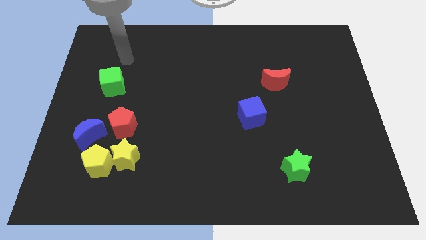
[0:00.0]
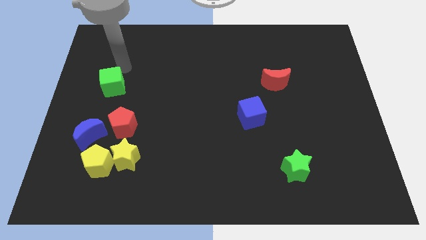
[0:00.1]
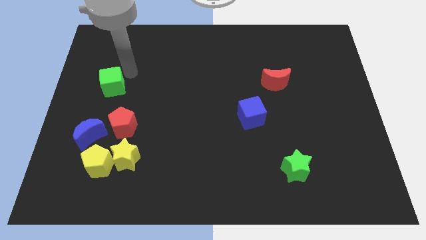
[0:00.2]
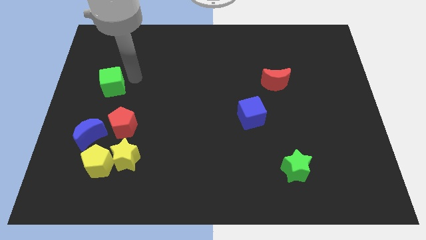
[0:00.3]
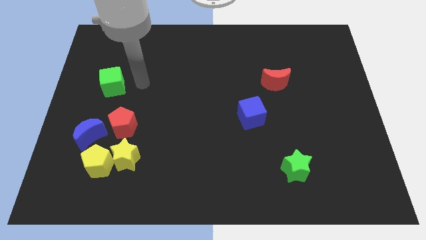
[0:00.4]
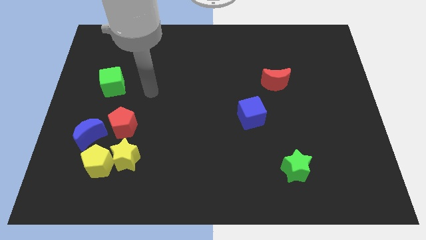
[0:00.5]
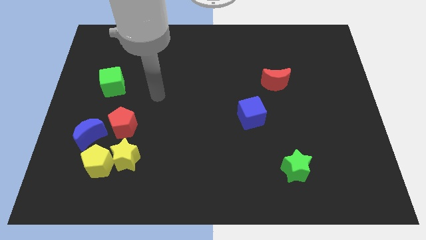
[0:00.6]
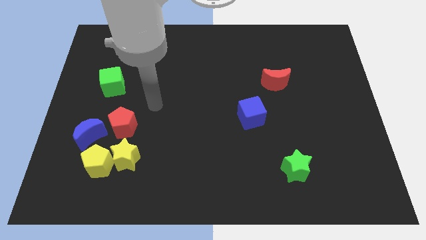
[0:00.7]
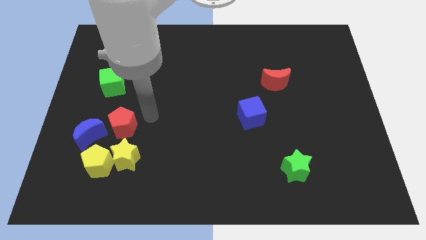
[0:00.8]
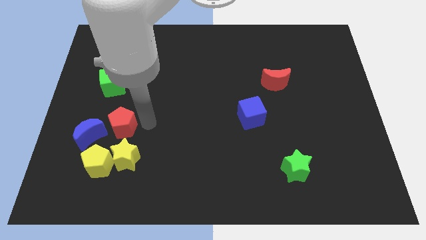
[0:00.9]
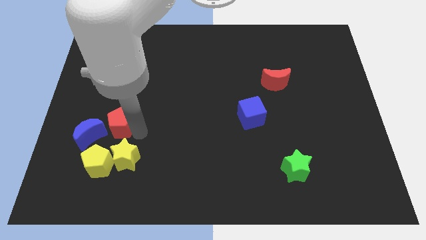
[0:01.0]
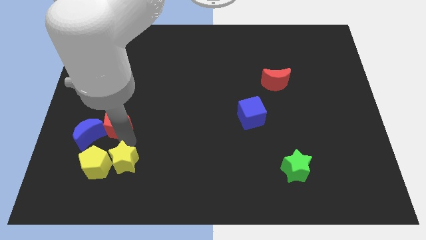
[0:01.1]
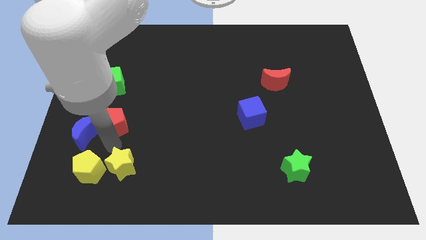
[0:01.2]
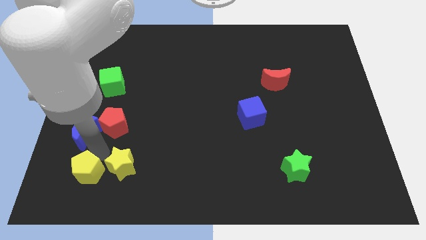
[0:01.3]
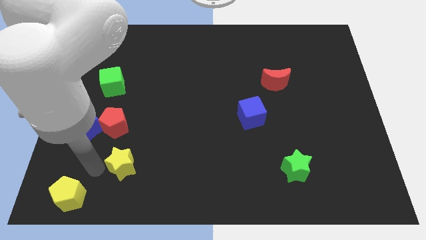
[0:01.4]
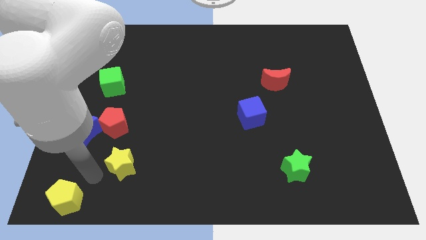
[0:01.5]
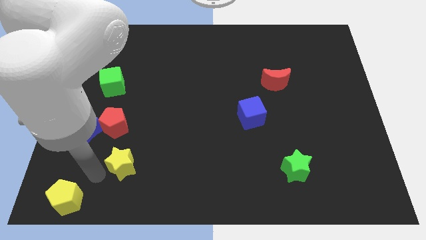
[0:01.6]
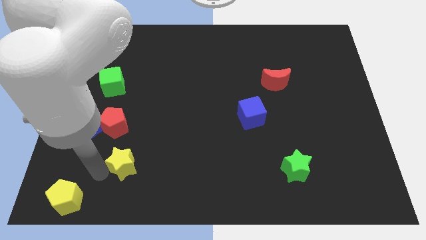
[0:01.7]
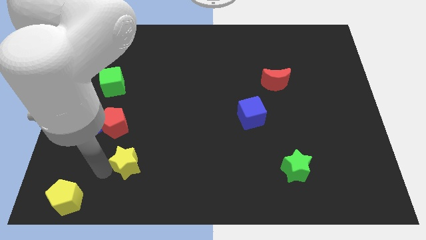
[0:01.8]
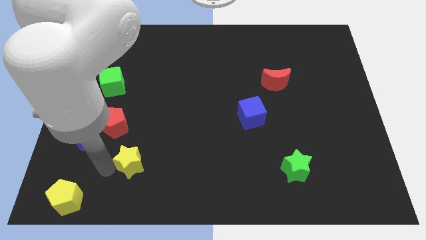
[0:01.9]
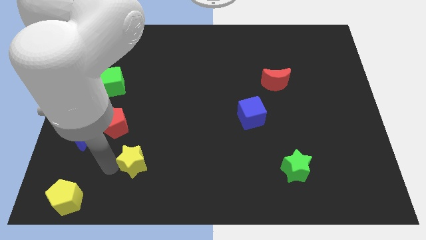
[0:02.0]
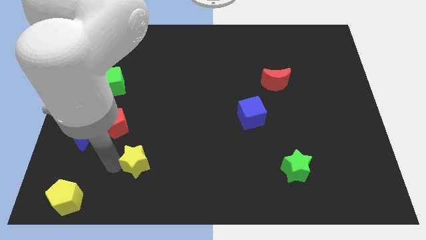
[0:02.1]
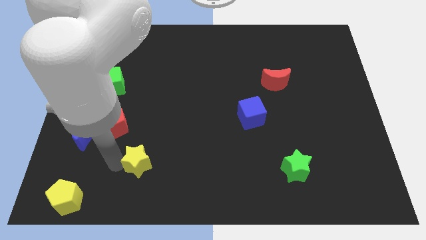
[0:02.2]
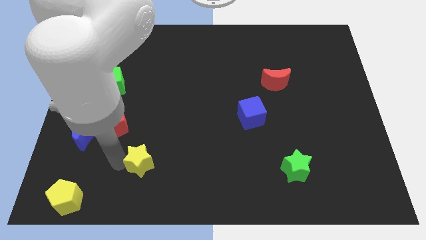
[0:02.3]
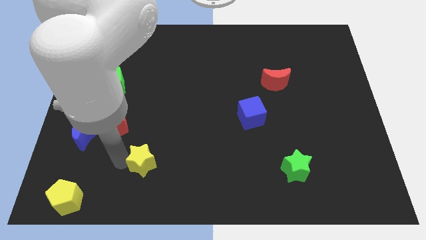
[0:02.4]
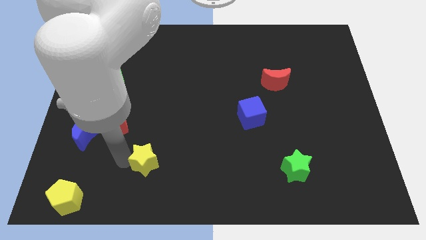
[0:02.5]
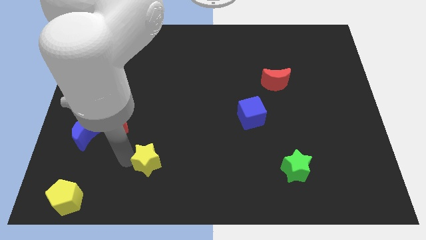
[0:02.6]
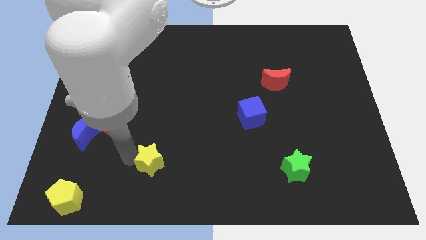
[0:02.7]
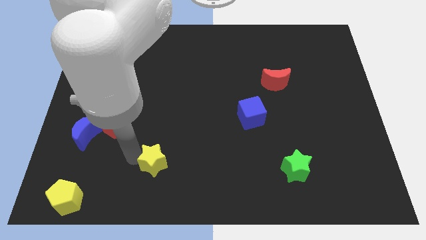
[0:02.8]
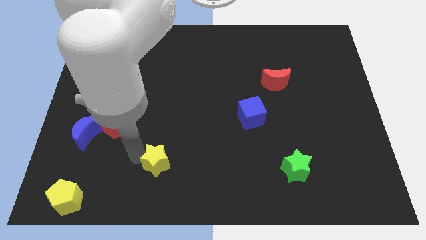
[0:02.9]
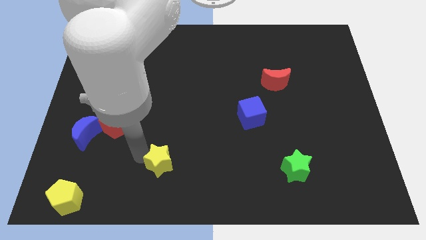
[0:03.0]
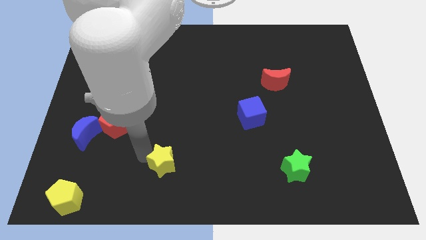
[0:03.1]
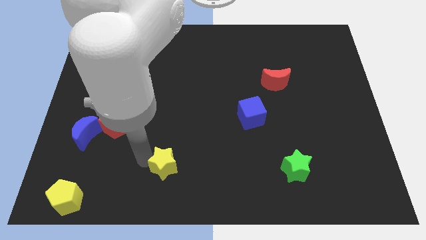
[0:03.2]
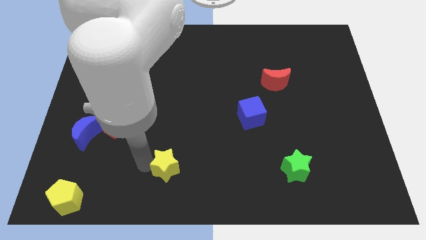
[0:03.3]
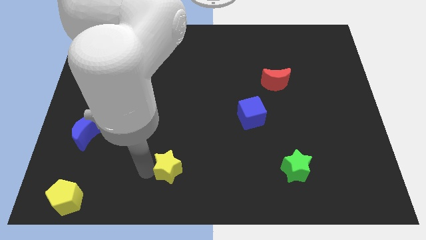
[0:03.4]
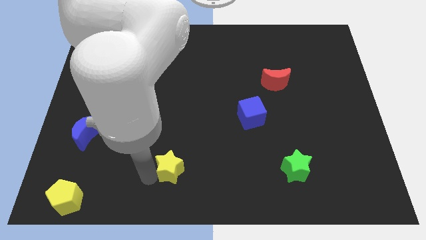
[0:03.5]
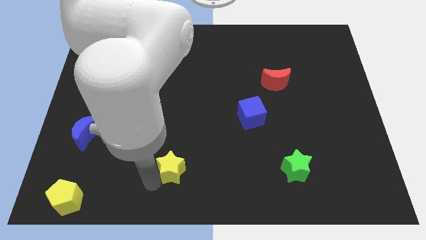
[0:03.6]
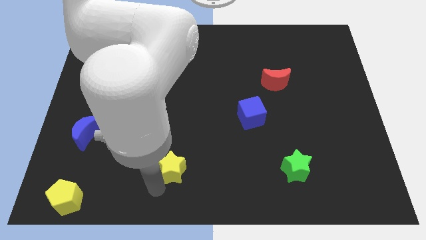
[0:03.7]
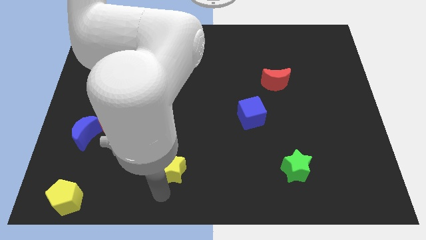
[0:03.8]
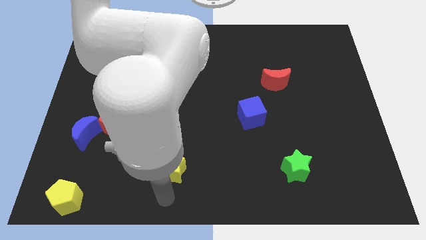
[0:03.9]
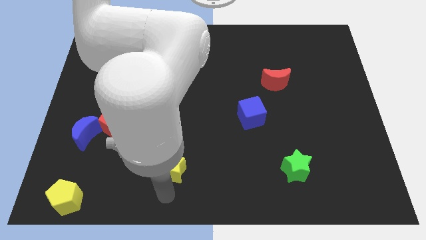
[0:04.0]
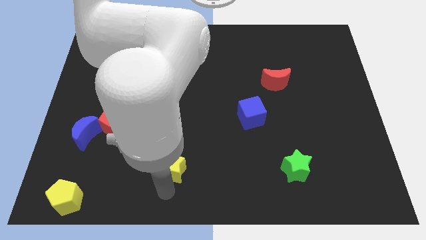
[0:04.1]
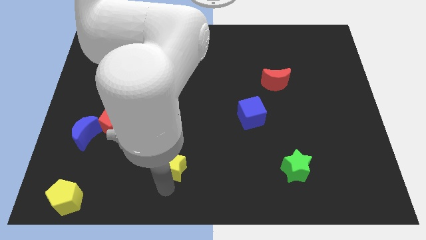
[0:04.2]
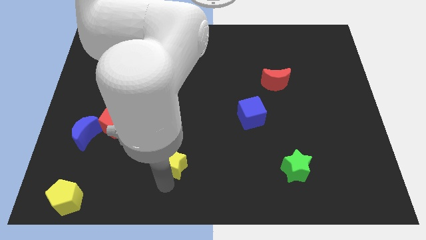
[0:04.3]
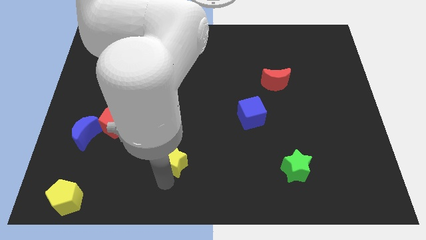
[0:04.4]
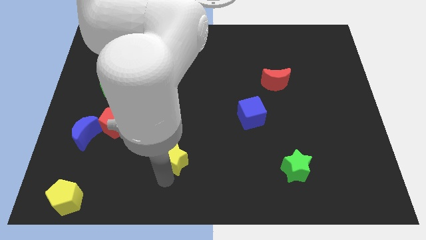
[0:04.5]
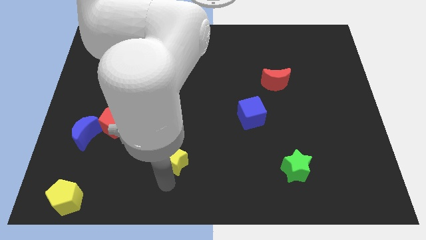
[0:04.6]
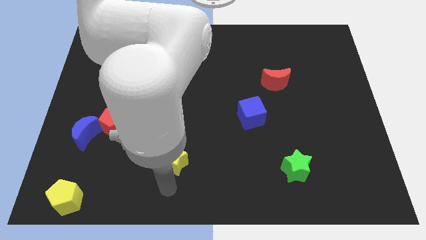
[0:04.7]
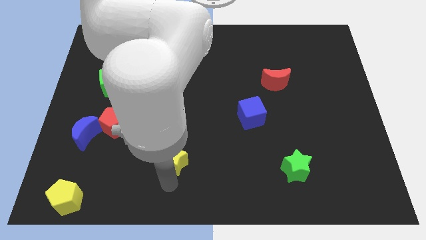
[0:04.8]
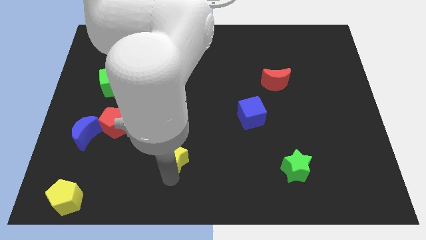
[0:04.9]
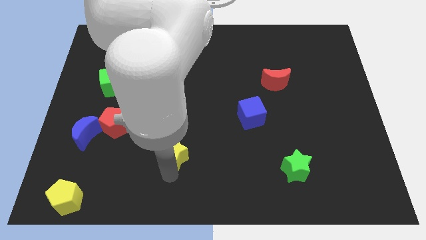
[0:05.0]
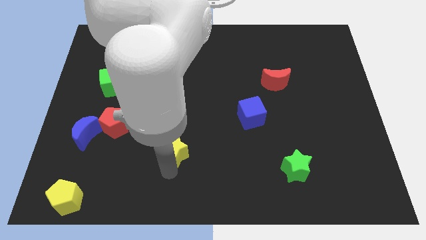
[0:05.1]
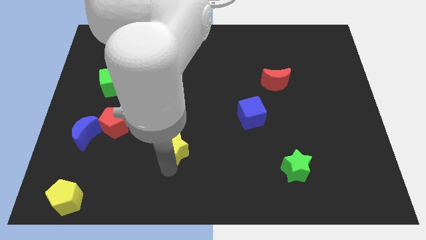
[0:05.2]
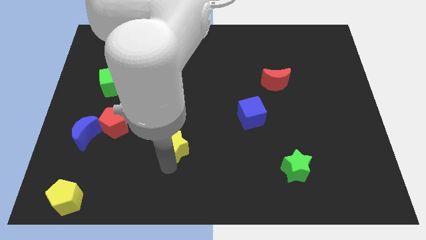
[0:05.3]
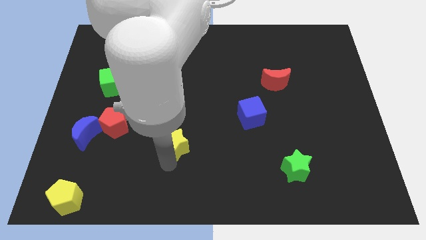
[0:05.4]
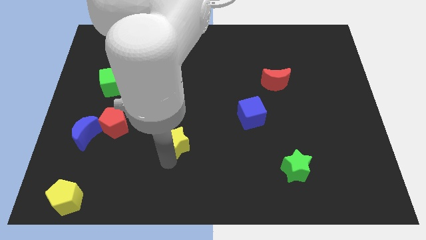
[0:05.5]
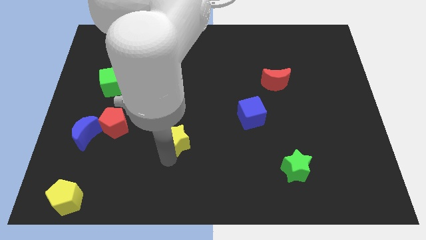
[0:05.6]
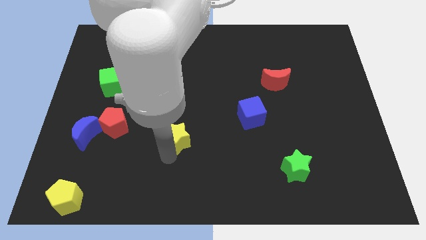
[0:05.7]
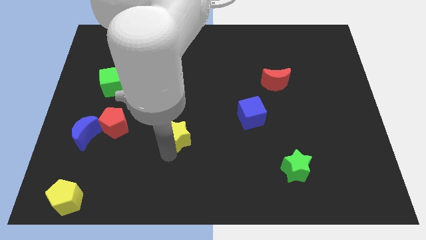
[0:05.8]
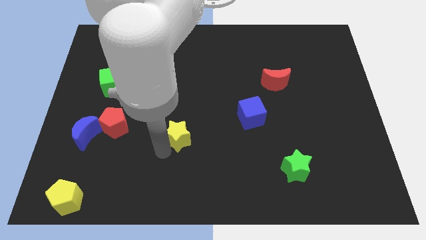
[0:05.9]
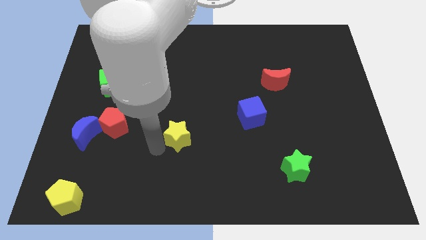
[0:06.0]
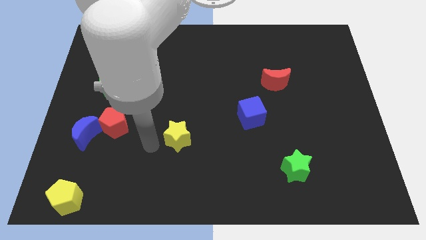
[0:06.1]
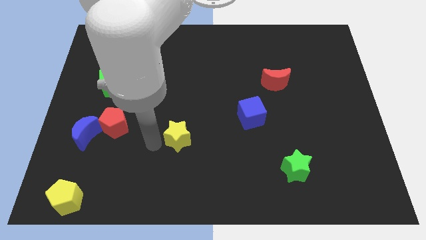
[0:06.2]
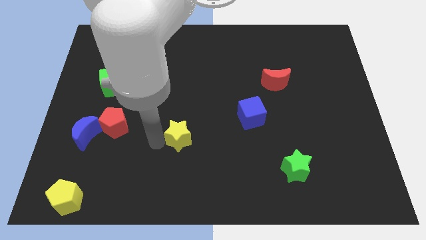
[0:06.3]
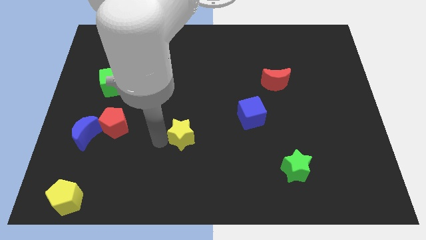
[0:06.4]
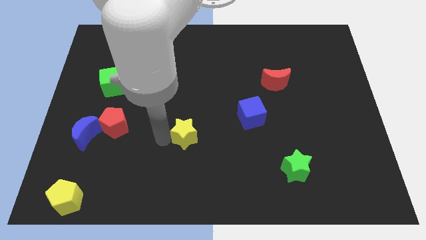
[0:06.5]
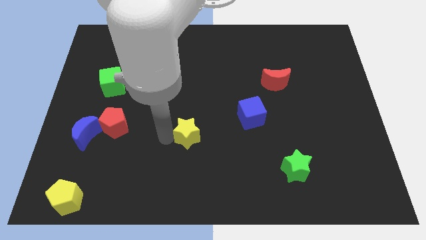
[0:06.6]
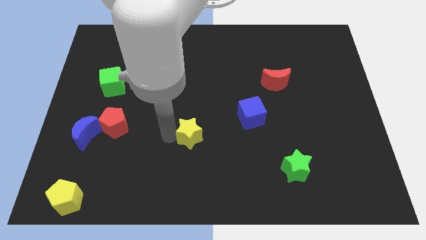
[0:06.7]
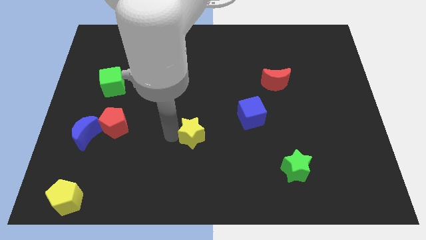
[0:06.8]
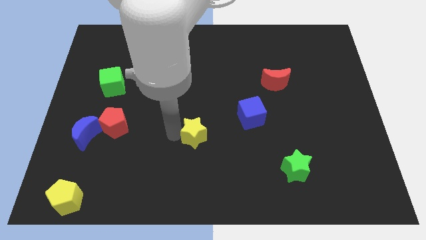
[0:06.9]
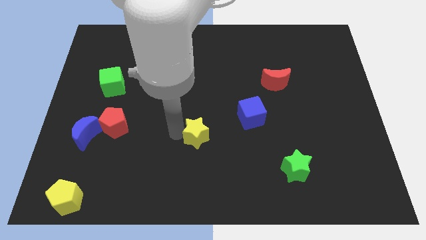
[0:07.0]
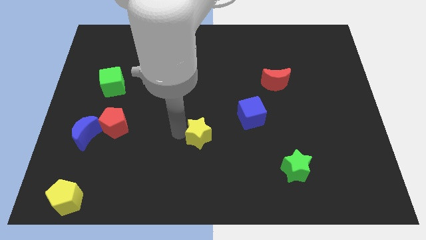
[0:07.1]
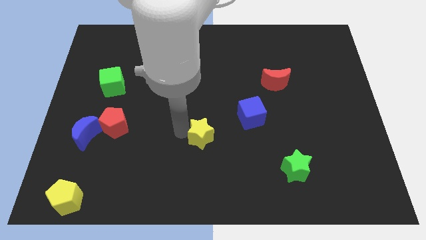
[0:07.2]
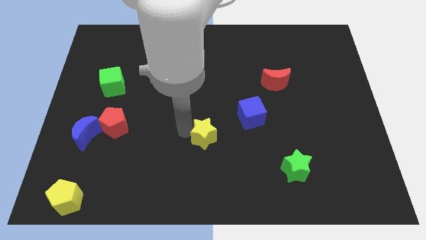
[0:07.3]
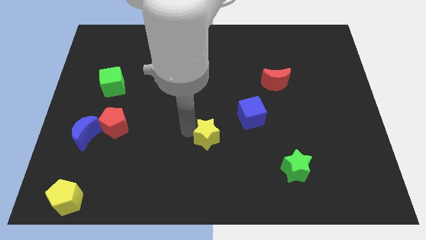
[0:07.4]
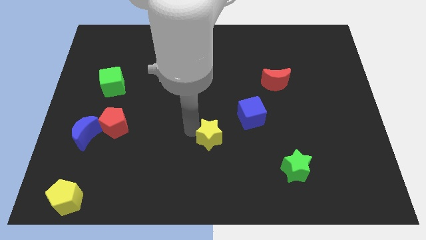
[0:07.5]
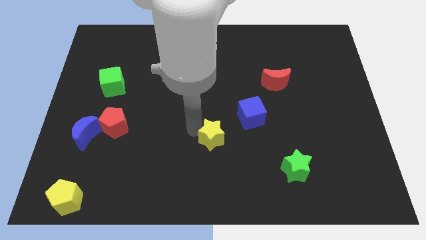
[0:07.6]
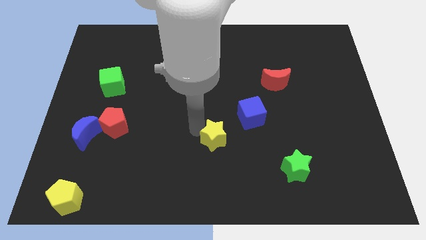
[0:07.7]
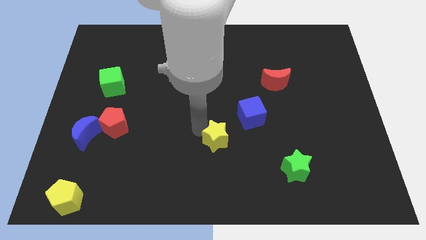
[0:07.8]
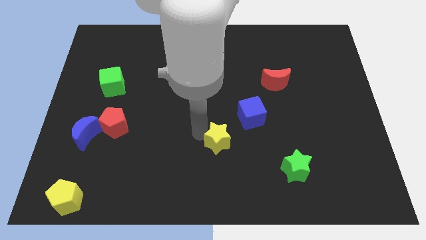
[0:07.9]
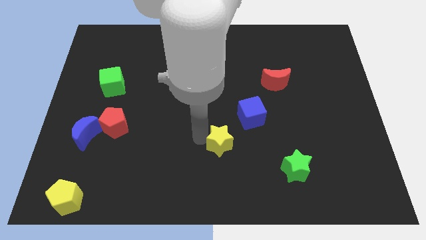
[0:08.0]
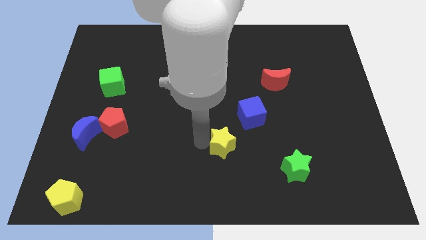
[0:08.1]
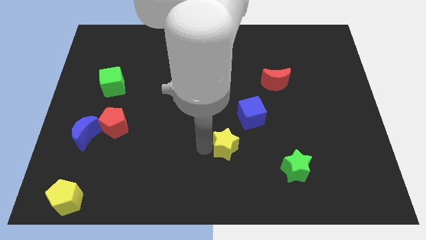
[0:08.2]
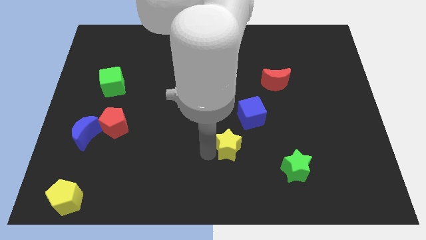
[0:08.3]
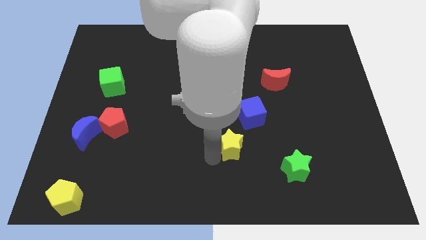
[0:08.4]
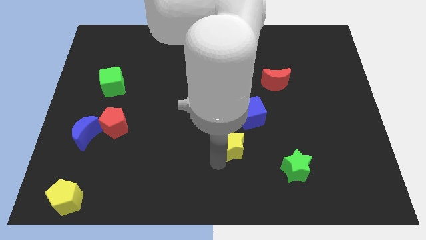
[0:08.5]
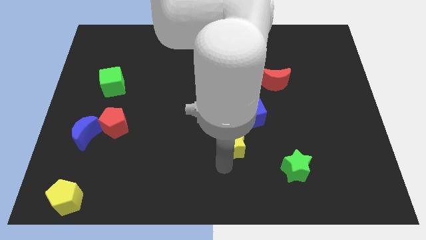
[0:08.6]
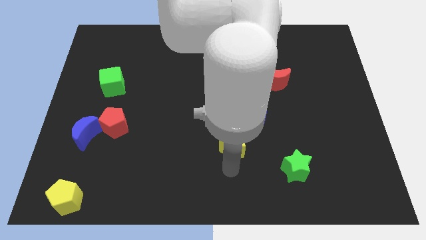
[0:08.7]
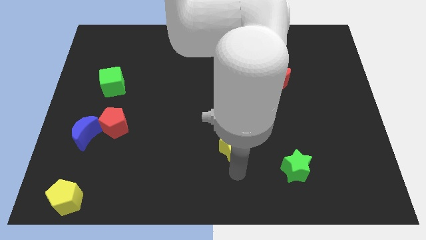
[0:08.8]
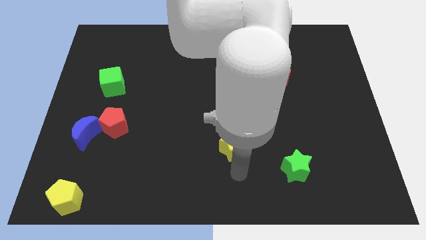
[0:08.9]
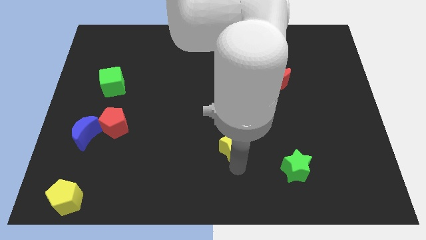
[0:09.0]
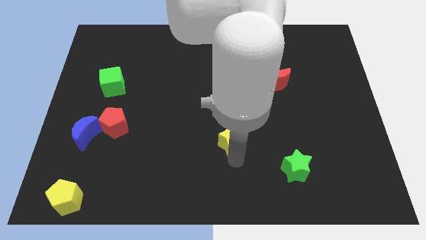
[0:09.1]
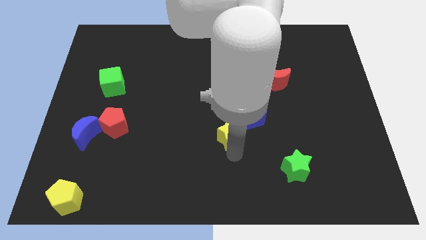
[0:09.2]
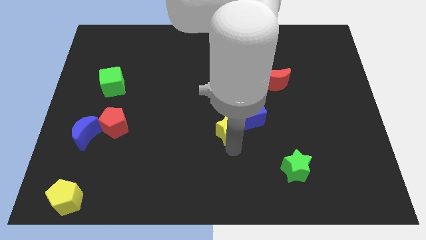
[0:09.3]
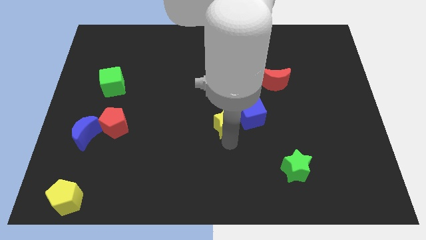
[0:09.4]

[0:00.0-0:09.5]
put the yellow star towards the blue cube
